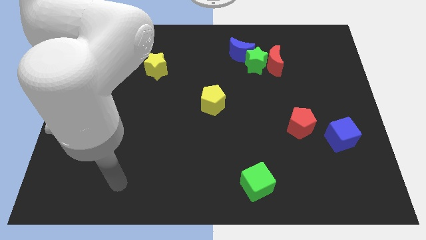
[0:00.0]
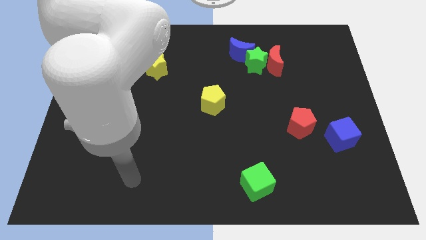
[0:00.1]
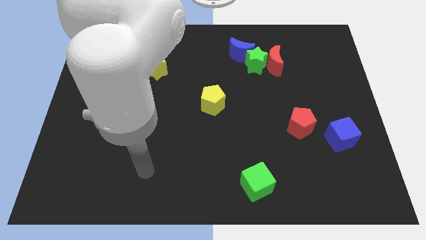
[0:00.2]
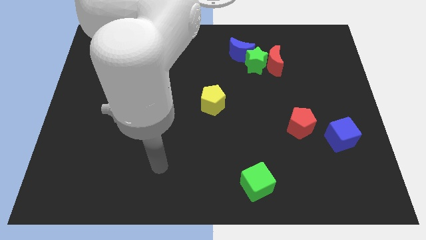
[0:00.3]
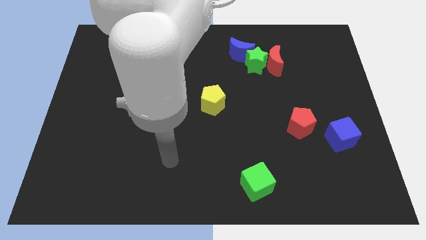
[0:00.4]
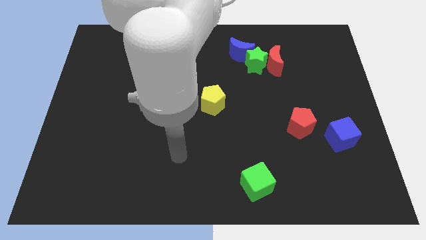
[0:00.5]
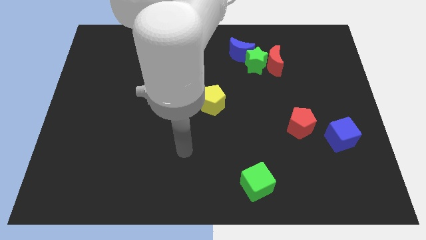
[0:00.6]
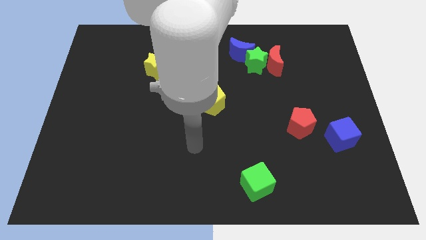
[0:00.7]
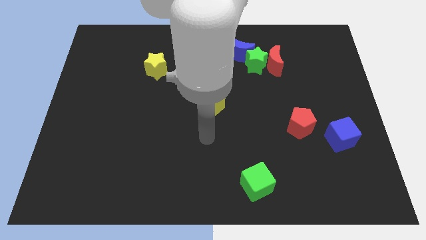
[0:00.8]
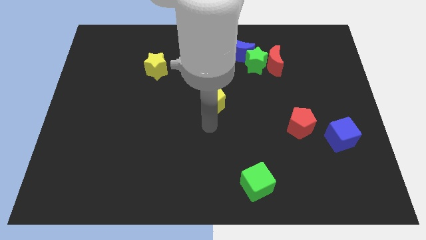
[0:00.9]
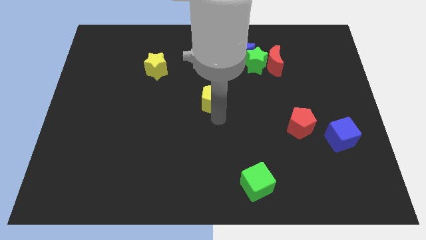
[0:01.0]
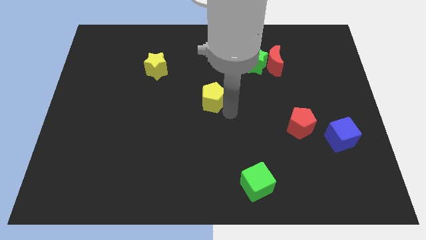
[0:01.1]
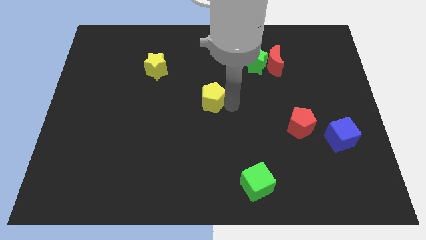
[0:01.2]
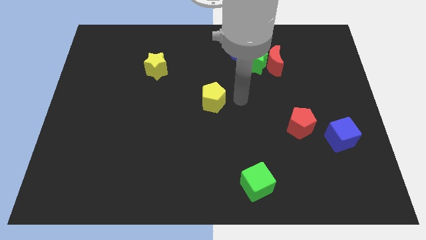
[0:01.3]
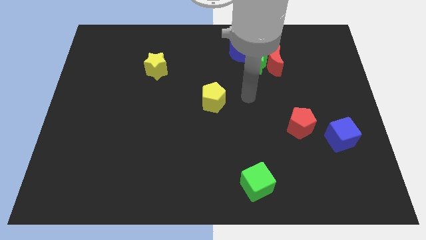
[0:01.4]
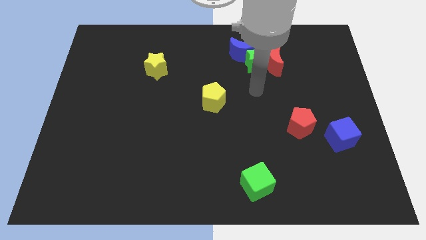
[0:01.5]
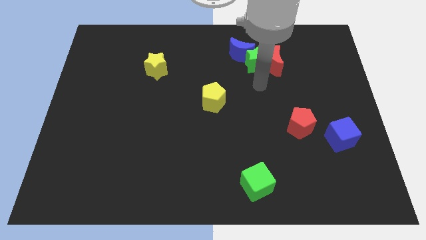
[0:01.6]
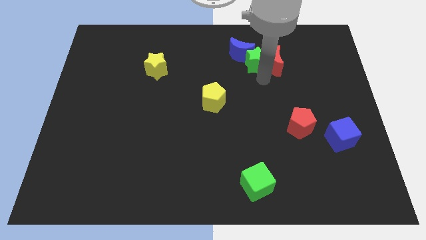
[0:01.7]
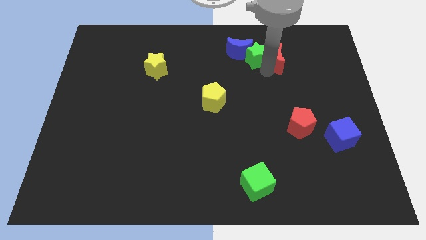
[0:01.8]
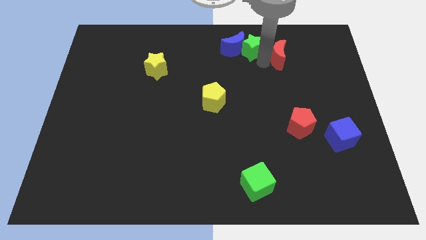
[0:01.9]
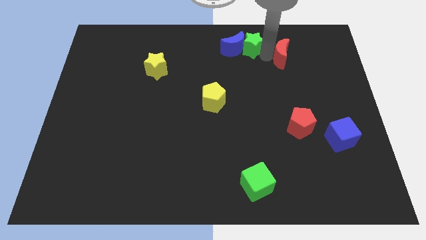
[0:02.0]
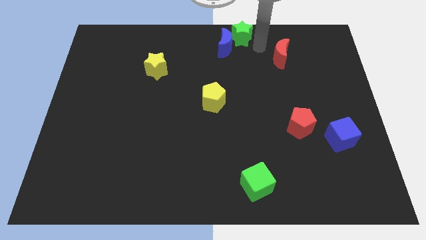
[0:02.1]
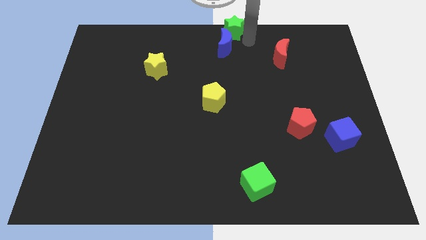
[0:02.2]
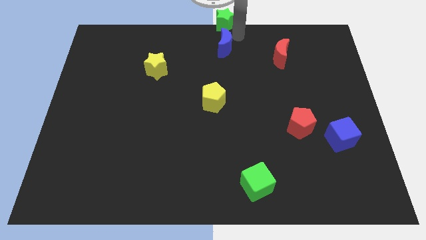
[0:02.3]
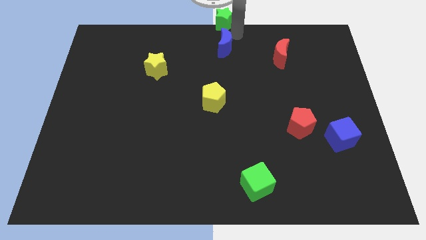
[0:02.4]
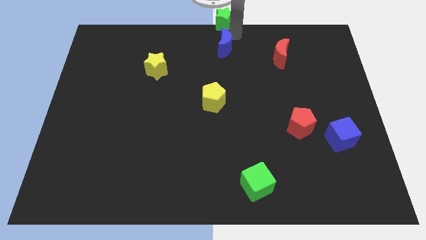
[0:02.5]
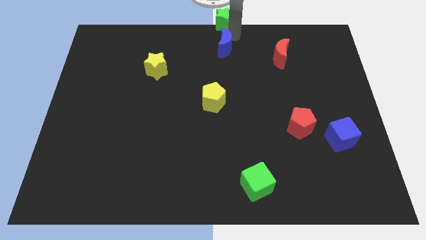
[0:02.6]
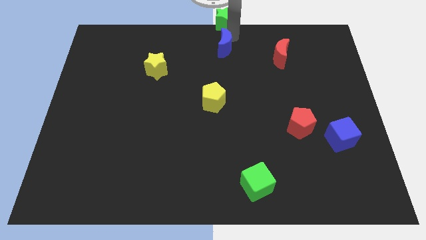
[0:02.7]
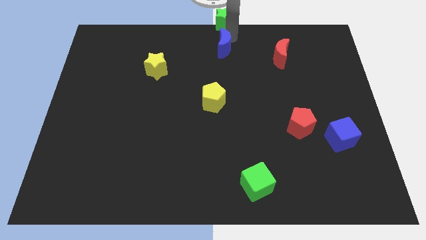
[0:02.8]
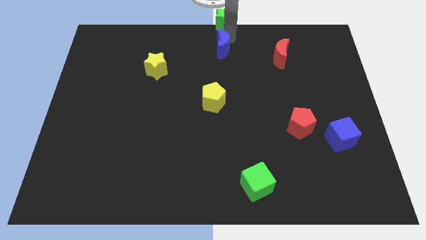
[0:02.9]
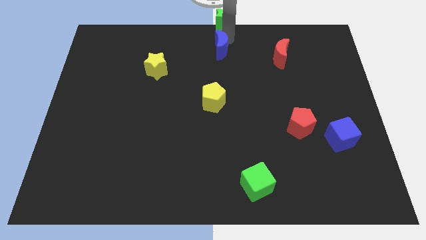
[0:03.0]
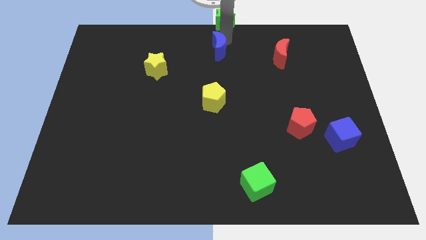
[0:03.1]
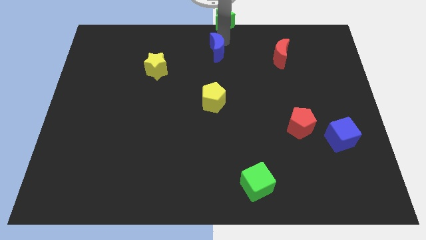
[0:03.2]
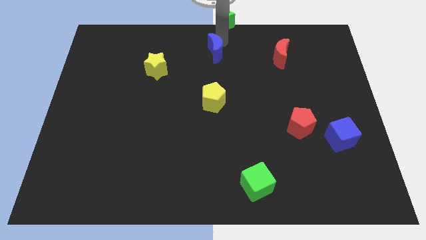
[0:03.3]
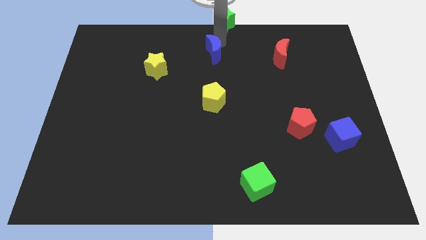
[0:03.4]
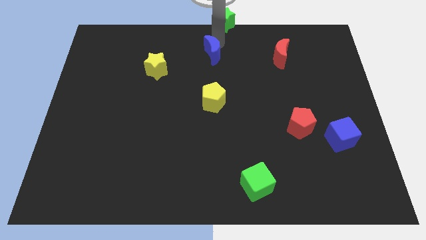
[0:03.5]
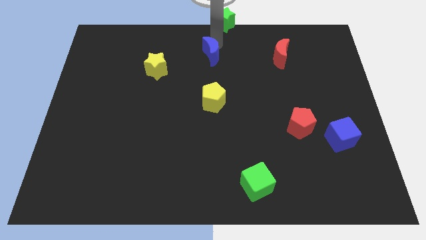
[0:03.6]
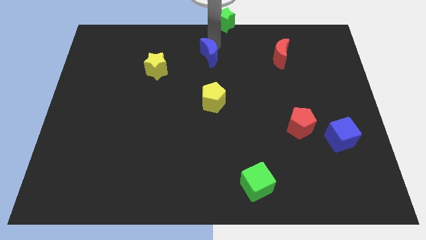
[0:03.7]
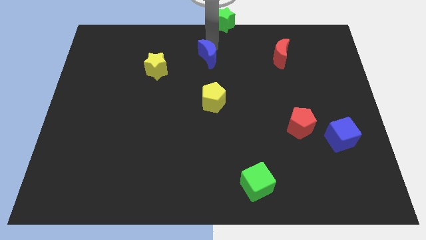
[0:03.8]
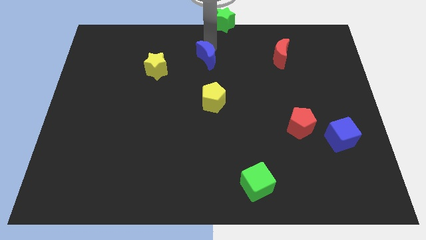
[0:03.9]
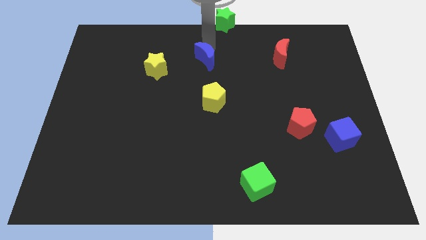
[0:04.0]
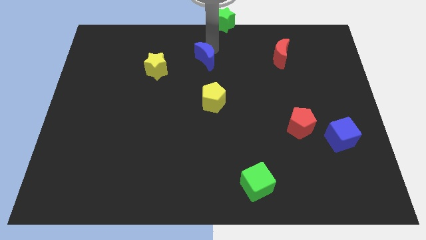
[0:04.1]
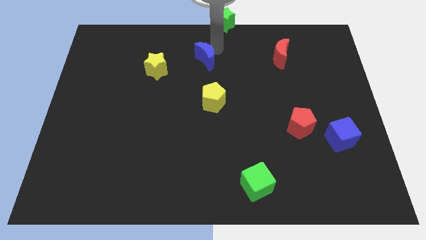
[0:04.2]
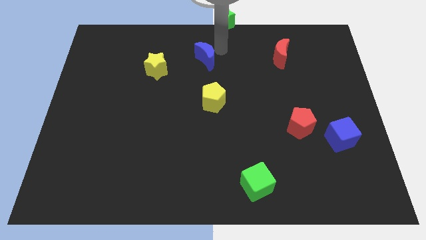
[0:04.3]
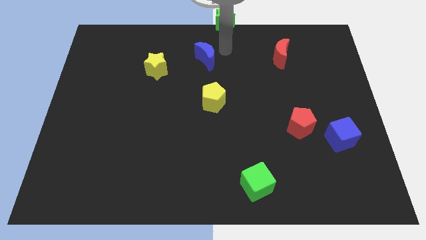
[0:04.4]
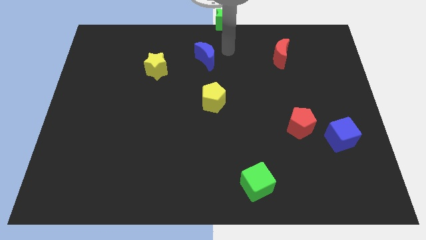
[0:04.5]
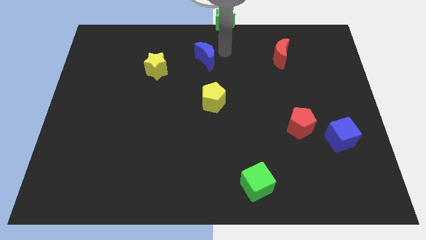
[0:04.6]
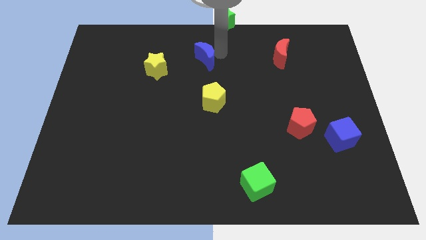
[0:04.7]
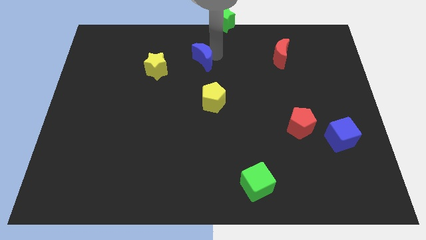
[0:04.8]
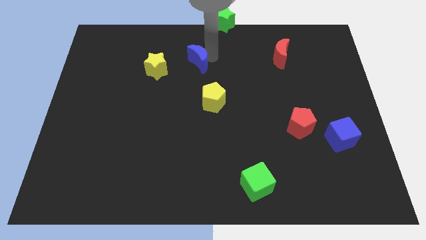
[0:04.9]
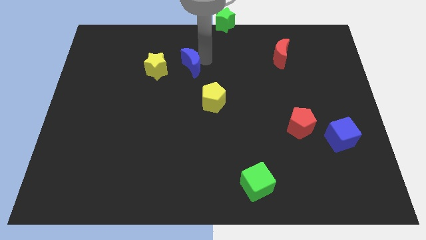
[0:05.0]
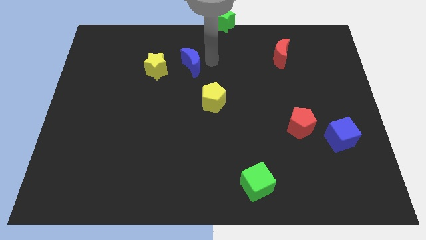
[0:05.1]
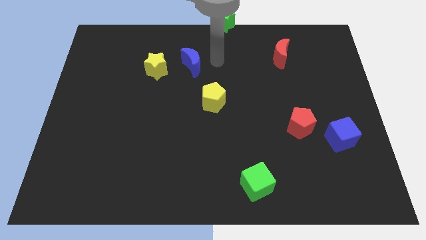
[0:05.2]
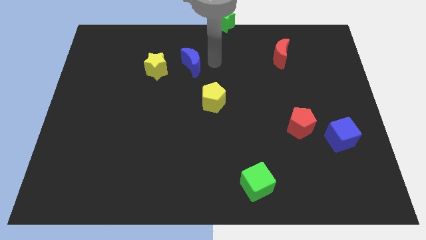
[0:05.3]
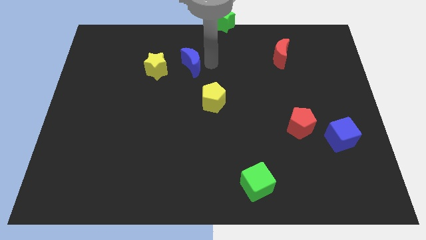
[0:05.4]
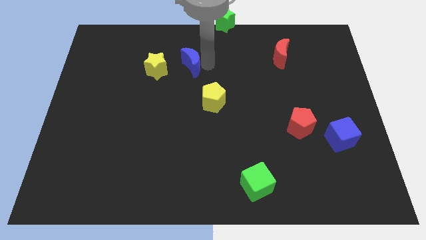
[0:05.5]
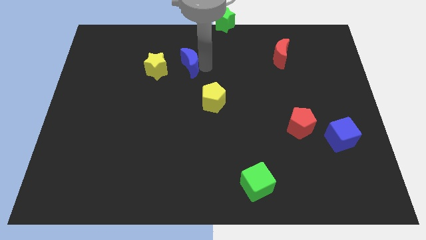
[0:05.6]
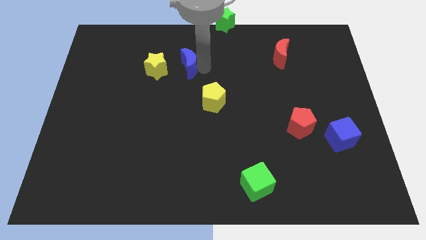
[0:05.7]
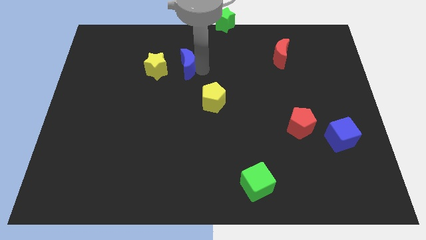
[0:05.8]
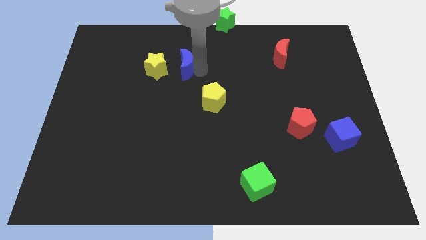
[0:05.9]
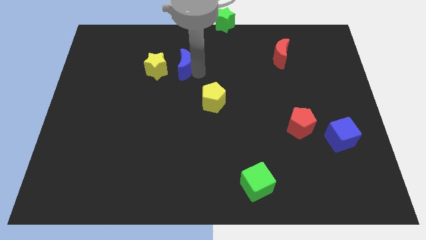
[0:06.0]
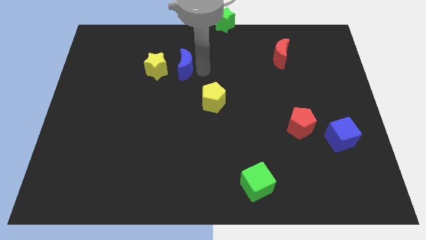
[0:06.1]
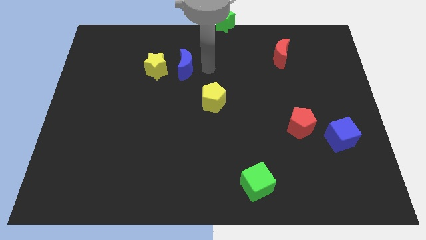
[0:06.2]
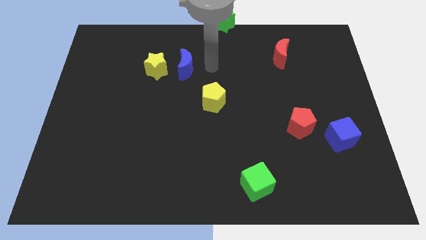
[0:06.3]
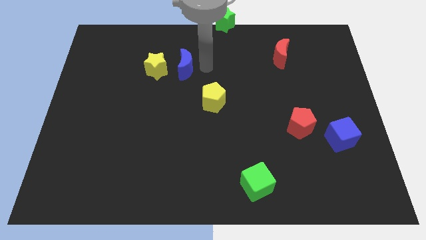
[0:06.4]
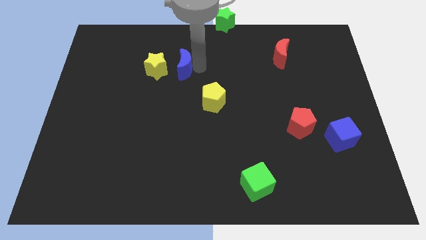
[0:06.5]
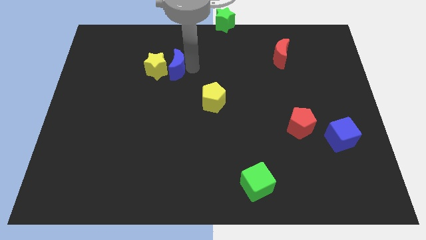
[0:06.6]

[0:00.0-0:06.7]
push the blue moon towards the yellow star

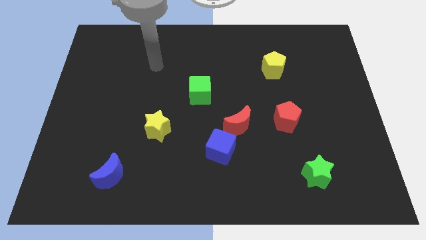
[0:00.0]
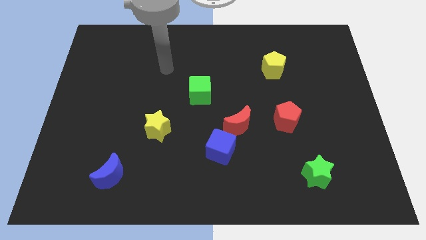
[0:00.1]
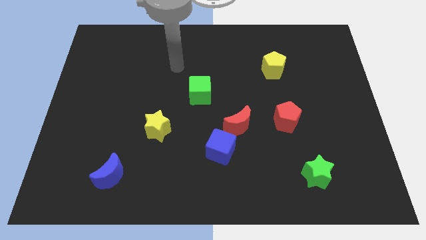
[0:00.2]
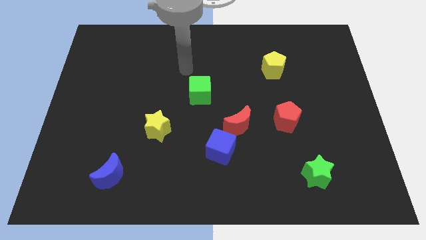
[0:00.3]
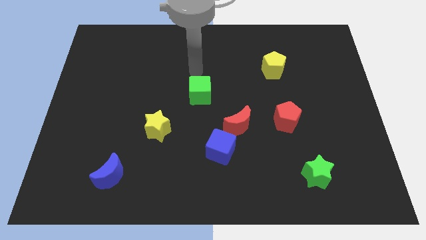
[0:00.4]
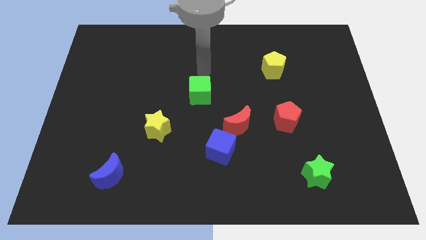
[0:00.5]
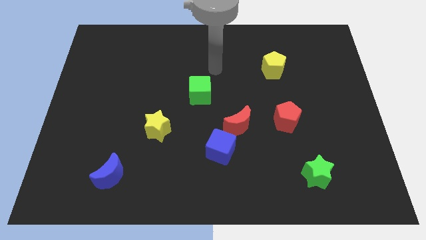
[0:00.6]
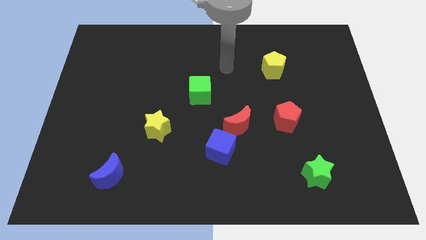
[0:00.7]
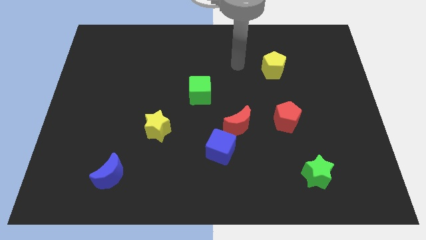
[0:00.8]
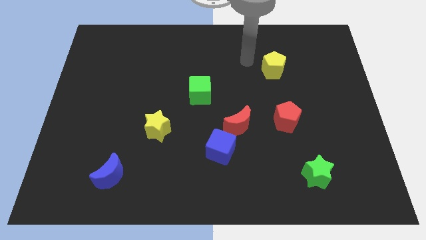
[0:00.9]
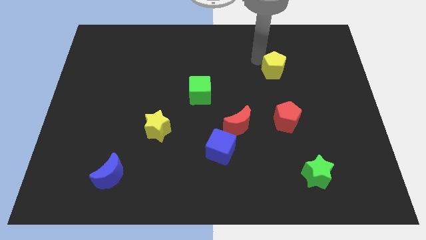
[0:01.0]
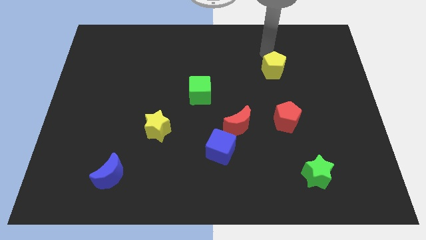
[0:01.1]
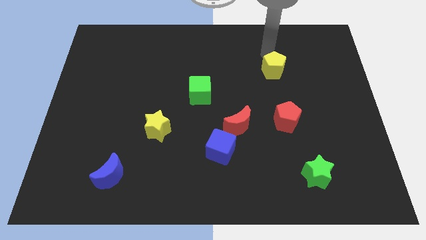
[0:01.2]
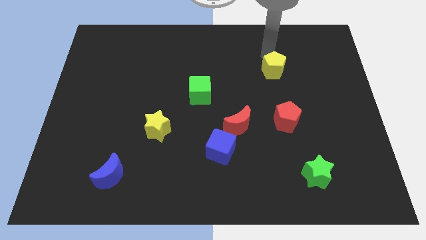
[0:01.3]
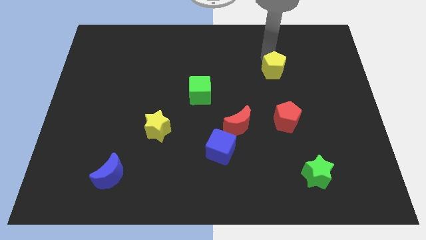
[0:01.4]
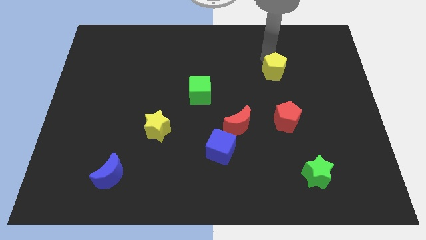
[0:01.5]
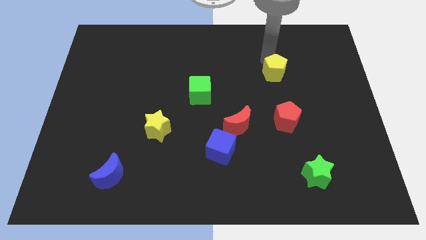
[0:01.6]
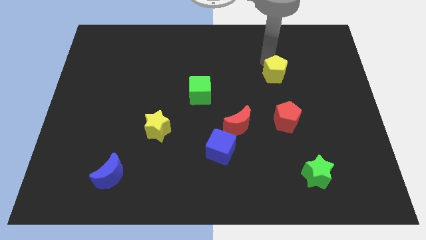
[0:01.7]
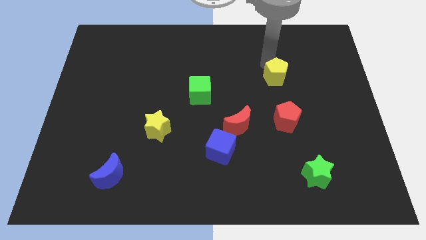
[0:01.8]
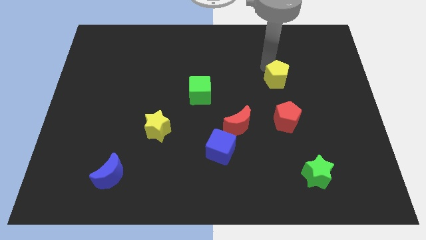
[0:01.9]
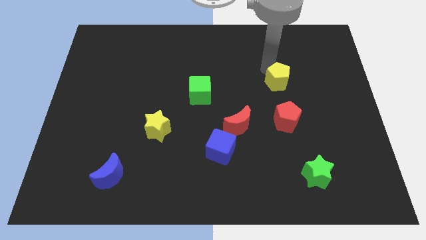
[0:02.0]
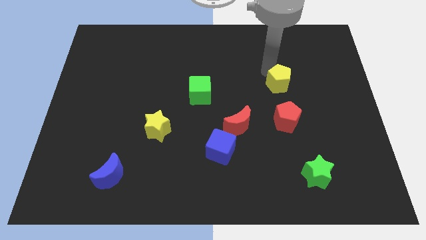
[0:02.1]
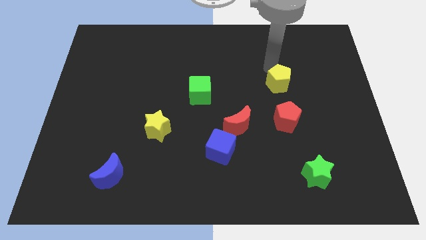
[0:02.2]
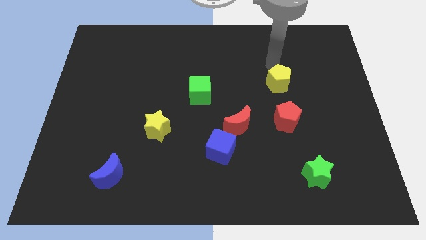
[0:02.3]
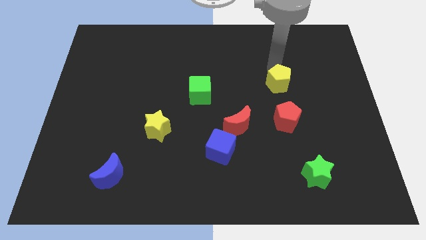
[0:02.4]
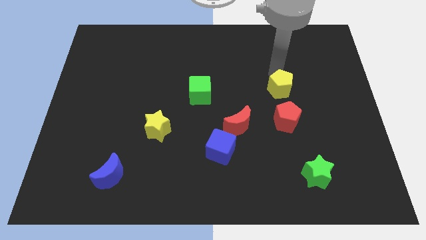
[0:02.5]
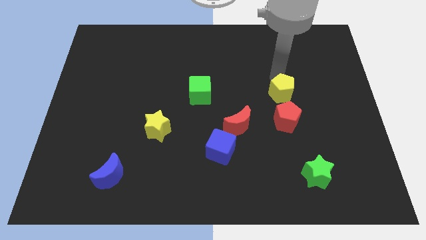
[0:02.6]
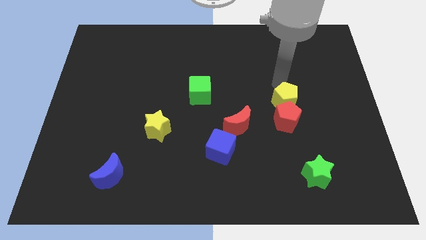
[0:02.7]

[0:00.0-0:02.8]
slide the yellow pentagon towards the red pentagon
